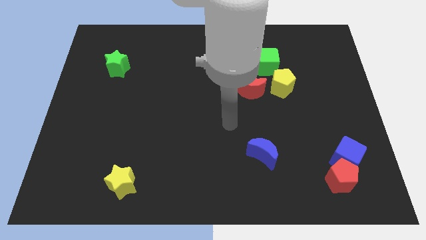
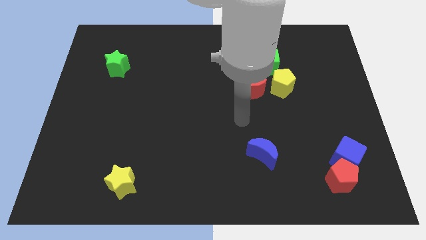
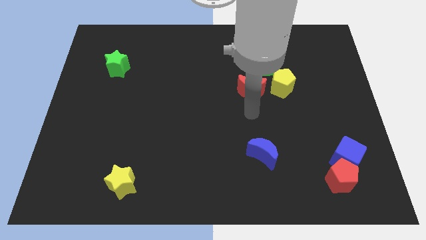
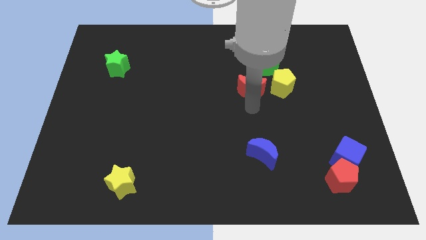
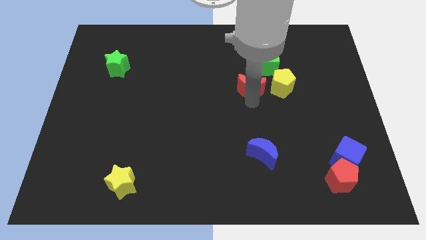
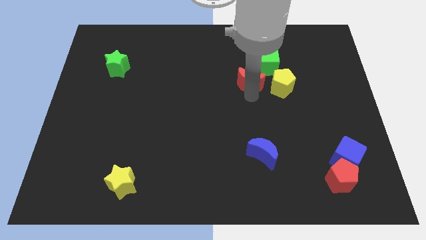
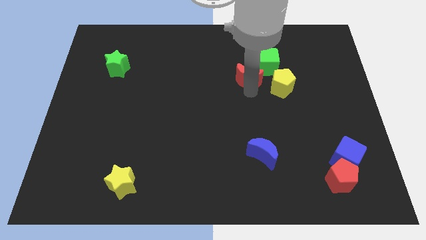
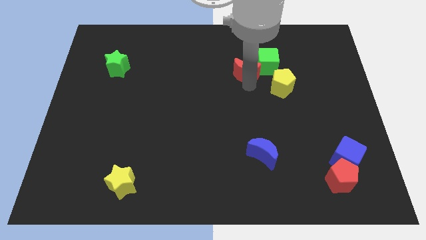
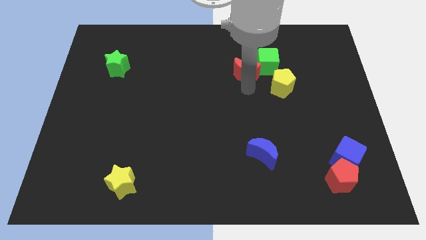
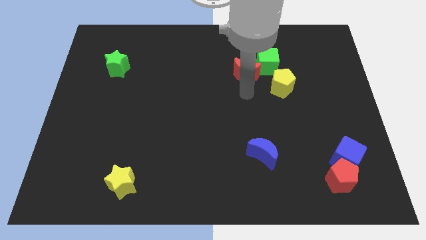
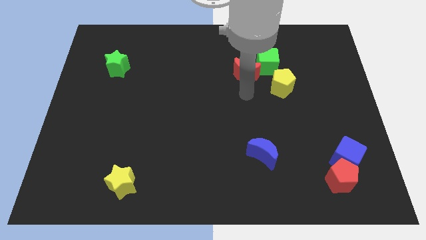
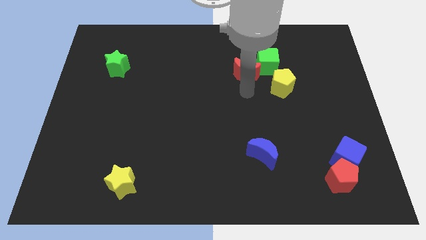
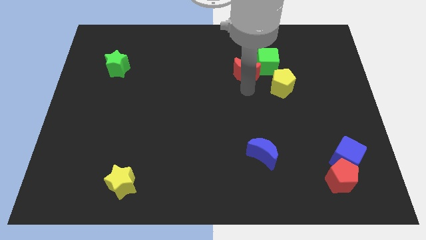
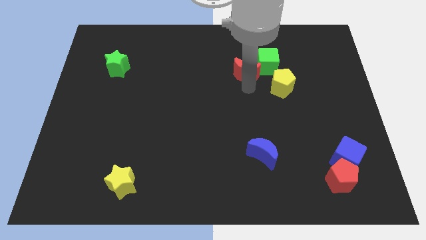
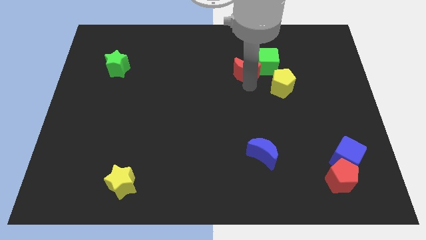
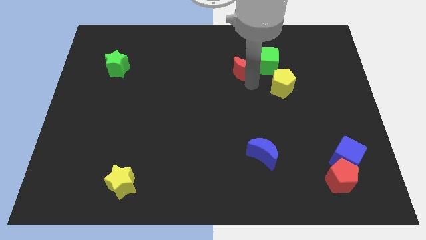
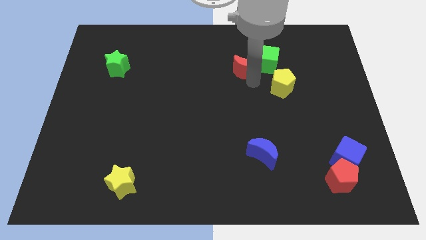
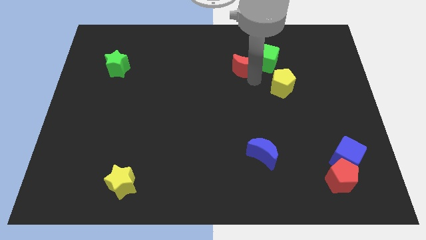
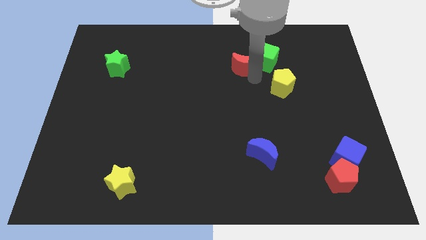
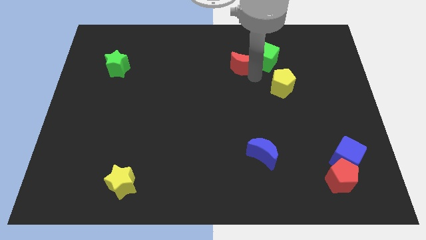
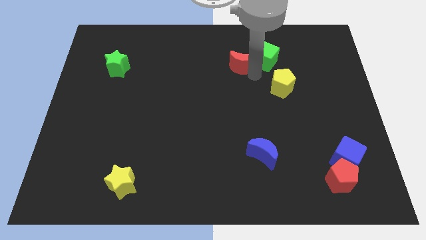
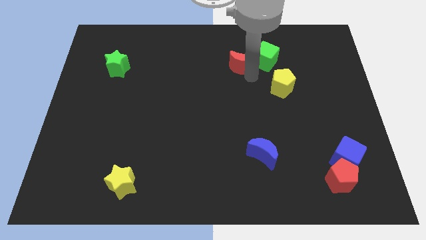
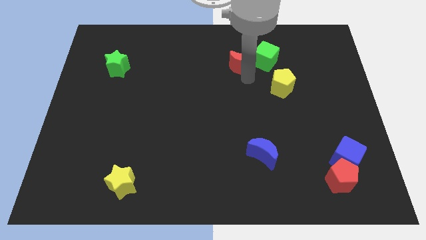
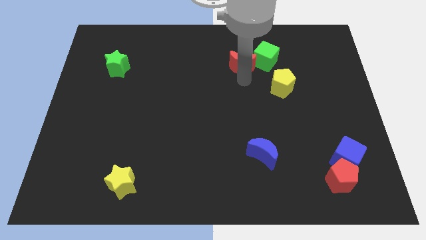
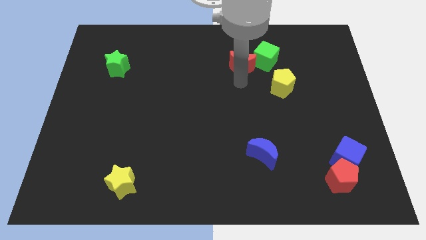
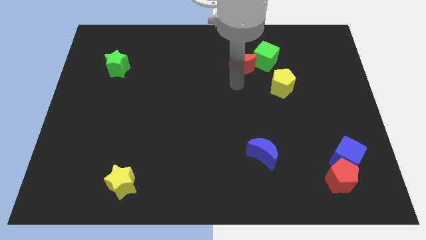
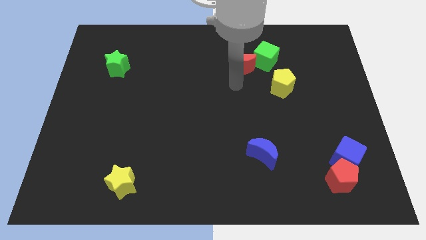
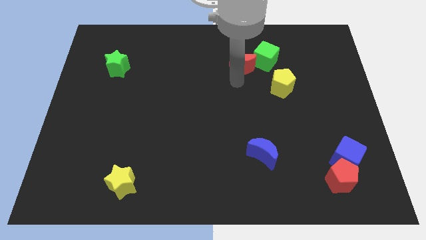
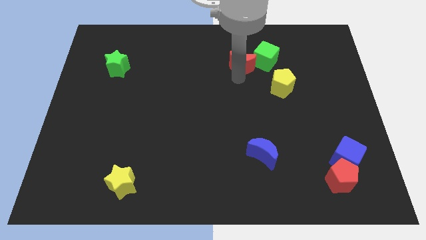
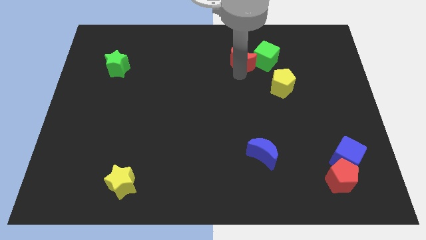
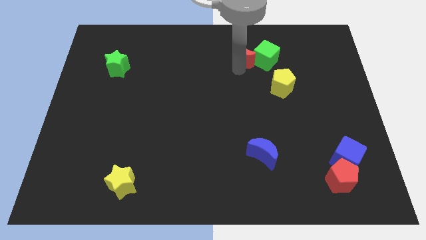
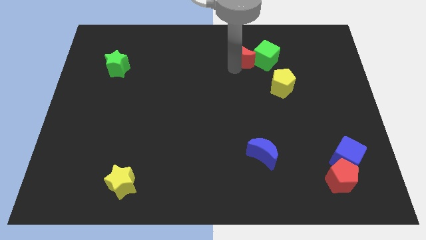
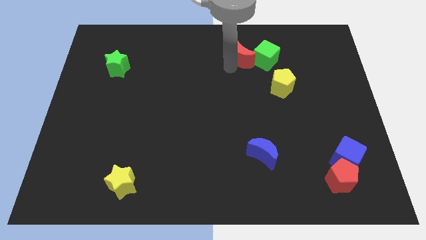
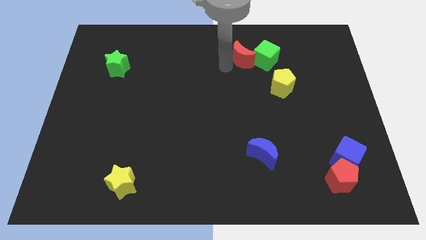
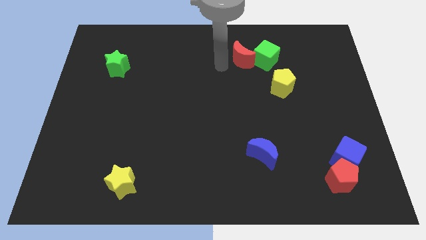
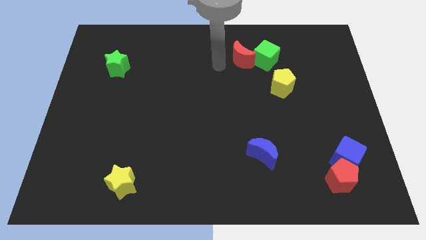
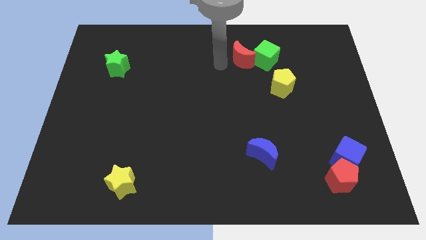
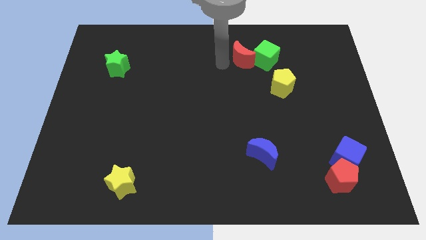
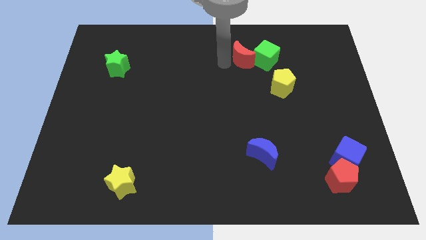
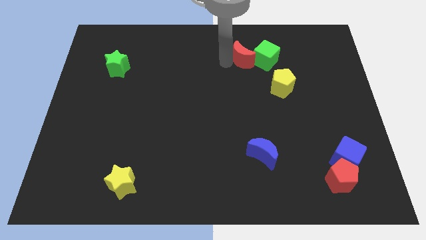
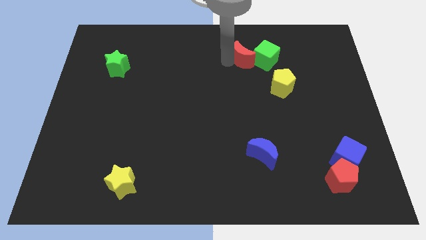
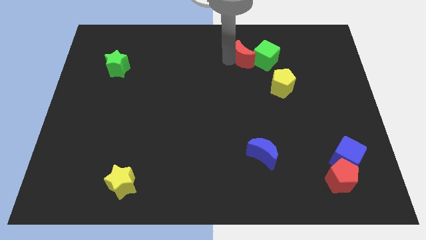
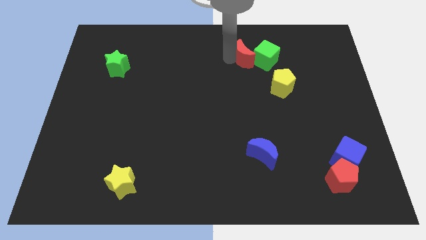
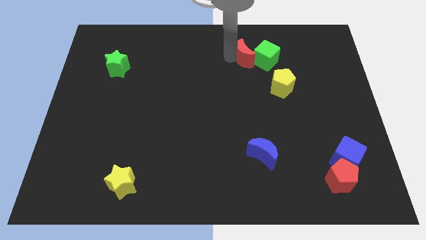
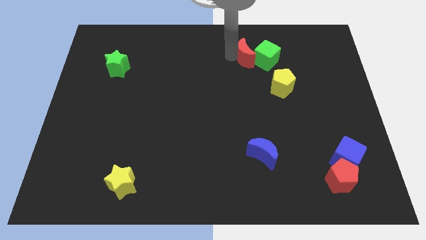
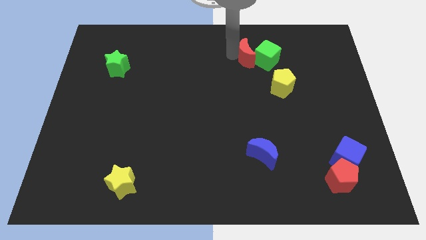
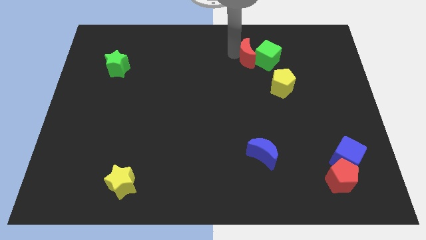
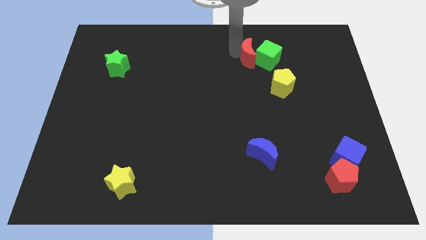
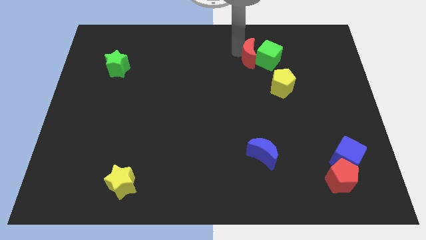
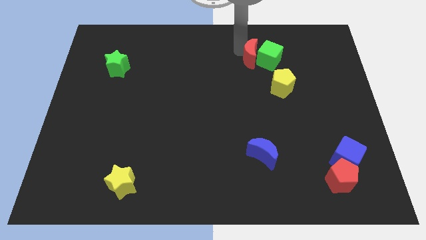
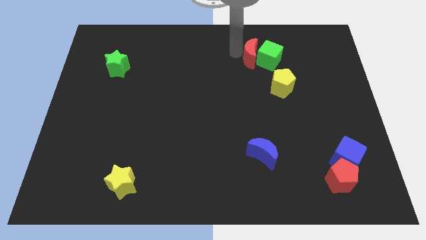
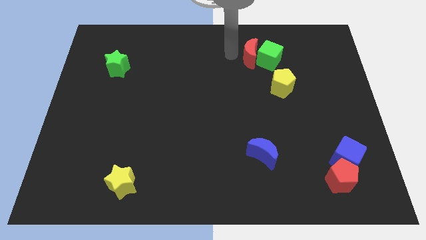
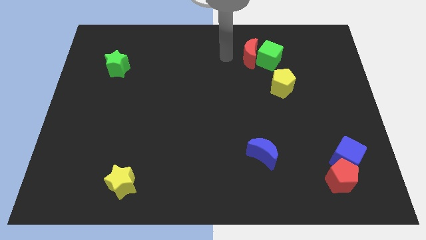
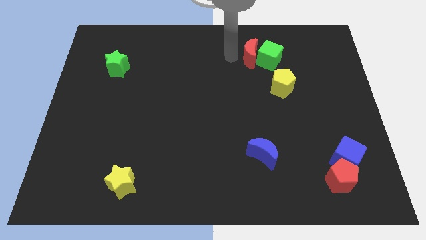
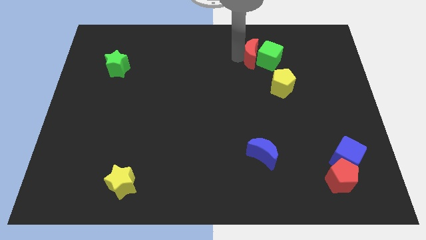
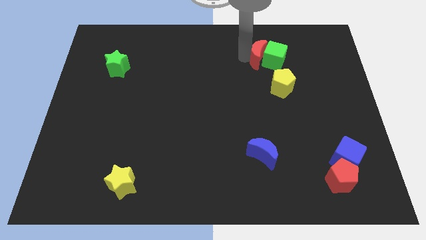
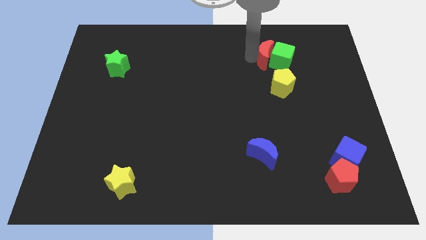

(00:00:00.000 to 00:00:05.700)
slide the red moon to the top of the yellow pentagon
